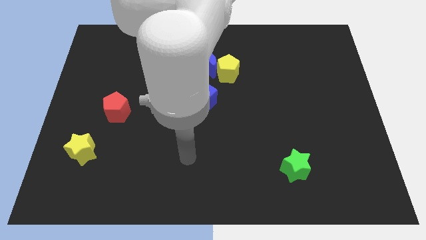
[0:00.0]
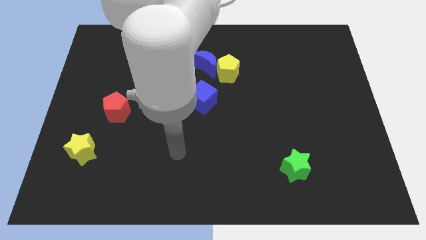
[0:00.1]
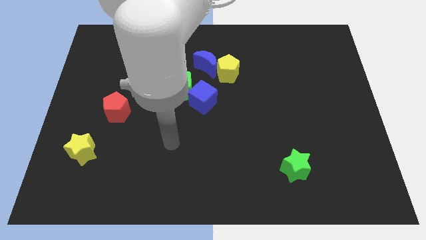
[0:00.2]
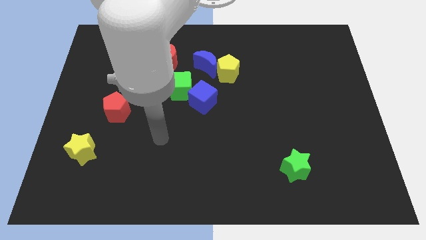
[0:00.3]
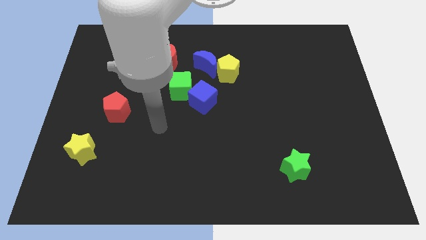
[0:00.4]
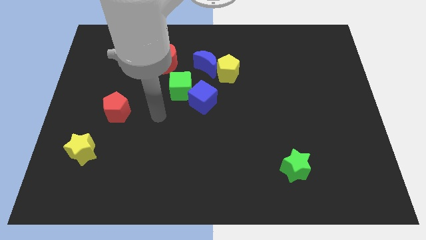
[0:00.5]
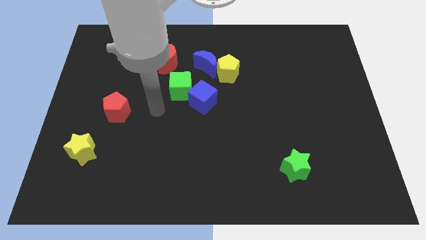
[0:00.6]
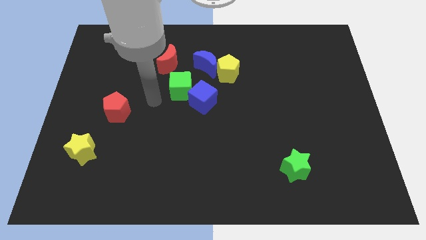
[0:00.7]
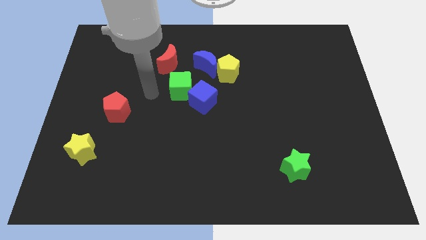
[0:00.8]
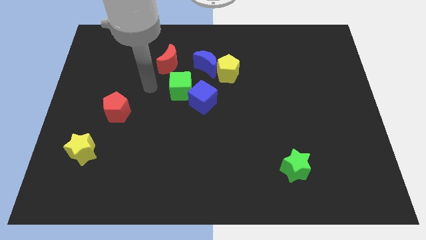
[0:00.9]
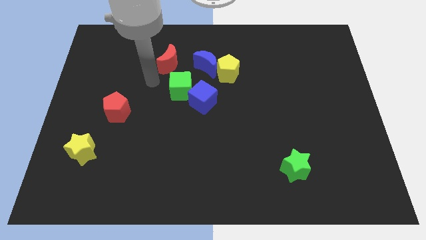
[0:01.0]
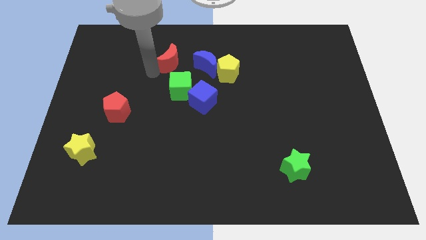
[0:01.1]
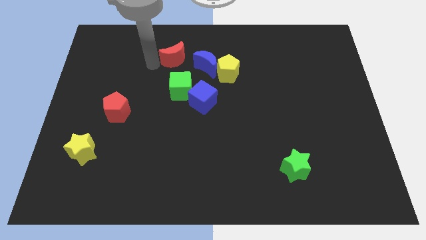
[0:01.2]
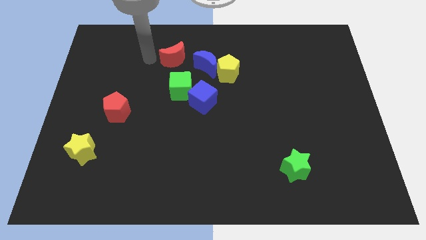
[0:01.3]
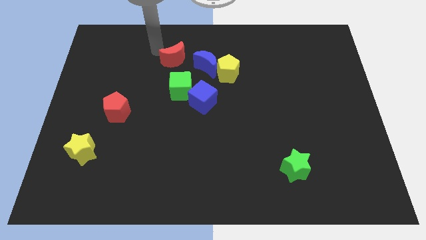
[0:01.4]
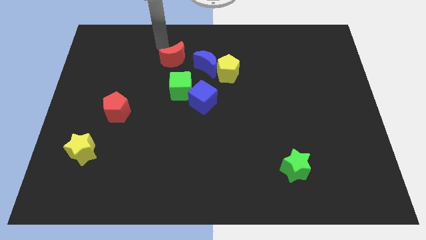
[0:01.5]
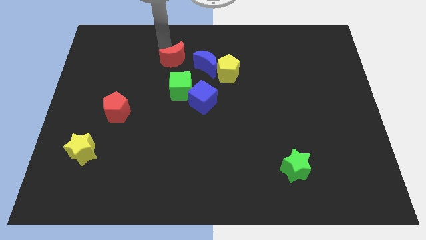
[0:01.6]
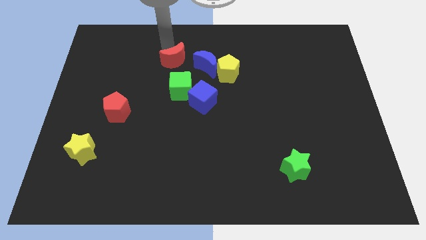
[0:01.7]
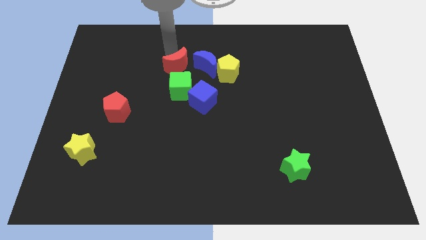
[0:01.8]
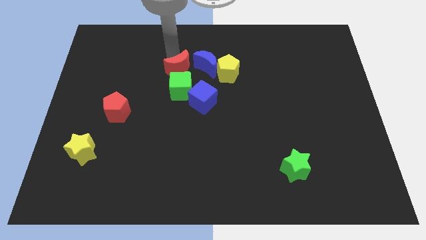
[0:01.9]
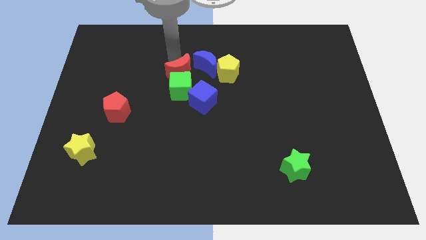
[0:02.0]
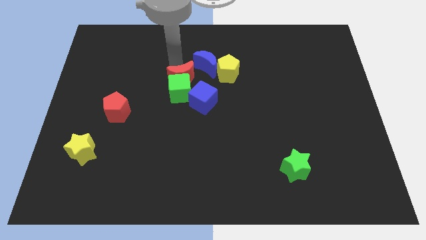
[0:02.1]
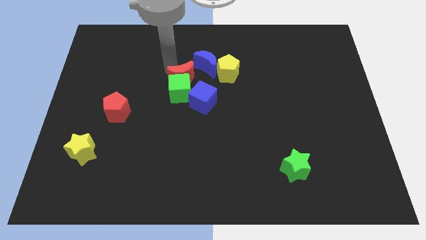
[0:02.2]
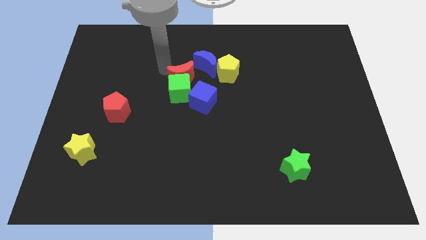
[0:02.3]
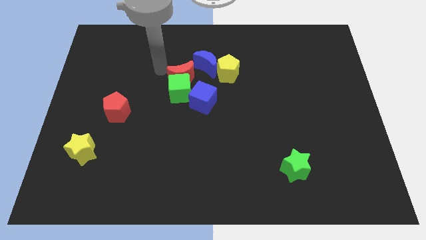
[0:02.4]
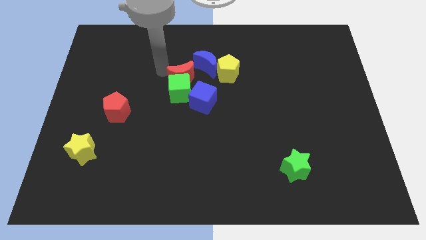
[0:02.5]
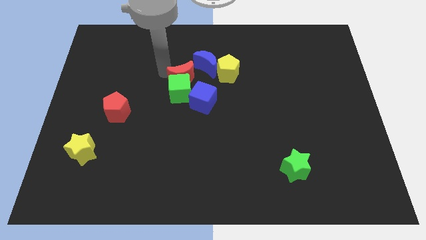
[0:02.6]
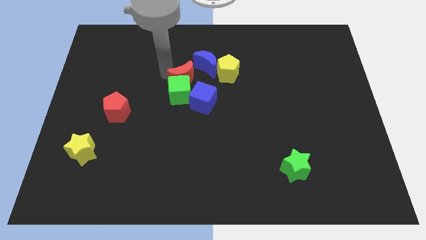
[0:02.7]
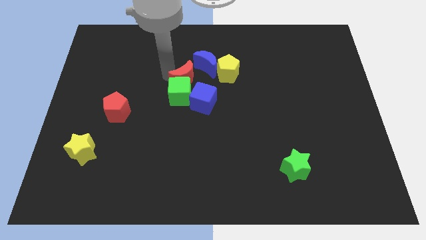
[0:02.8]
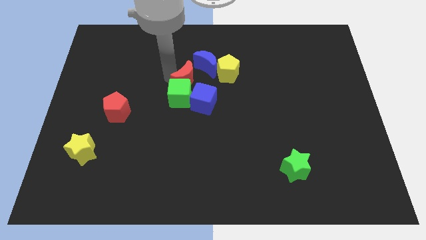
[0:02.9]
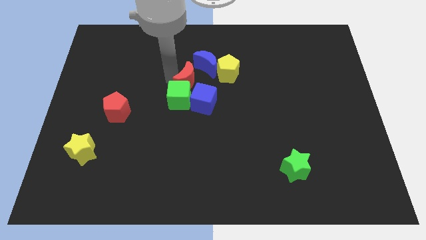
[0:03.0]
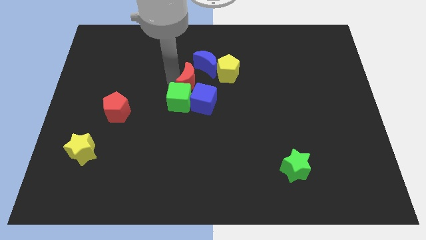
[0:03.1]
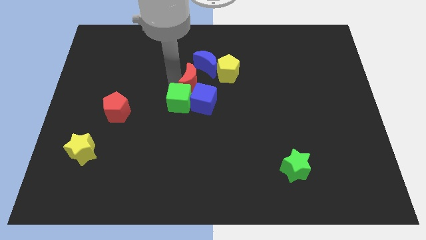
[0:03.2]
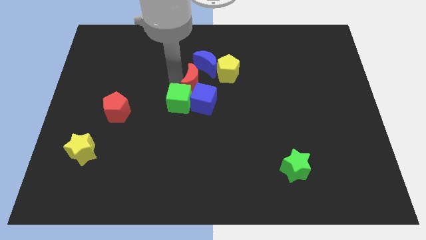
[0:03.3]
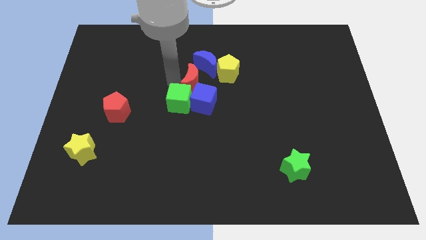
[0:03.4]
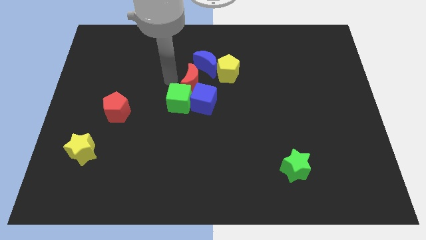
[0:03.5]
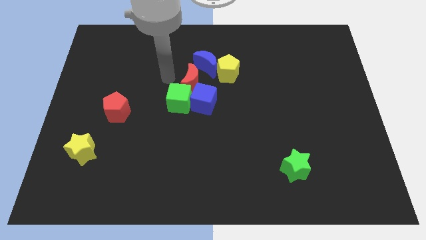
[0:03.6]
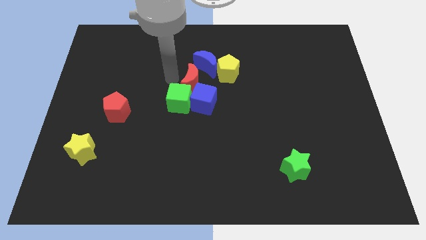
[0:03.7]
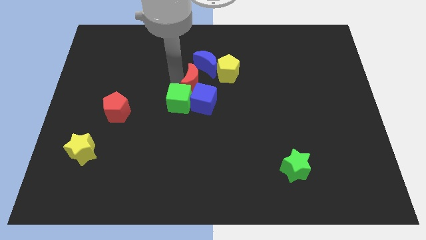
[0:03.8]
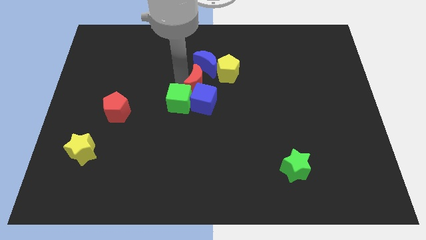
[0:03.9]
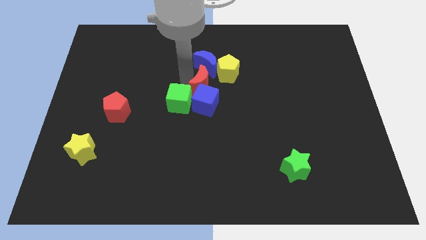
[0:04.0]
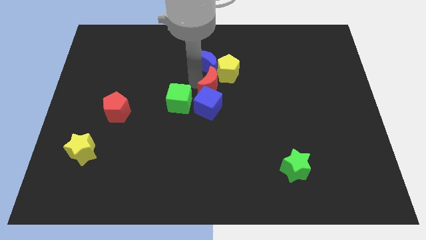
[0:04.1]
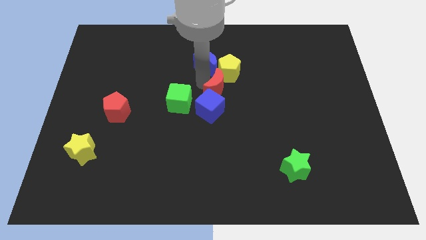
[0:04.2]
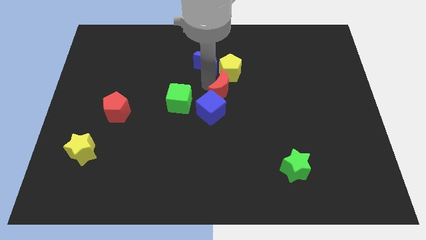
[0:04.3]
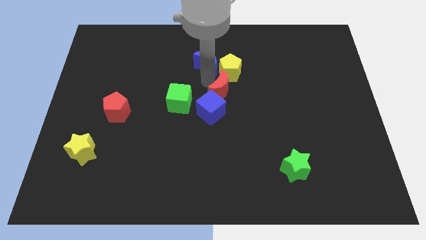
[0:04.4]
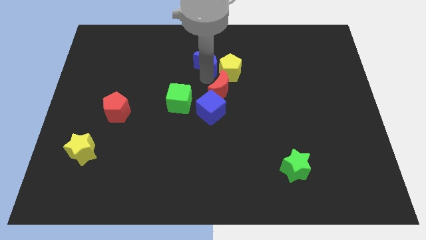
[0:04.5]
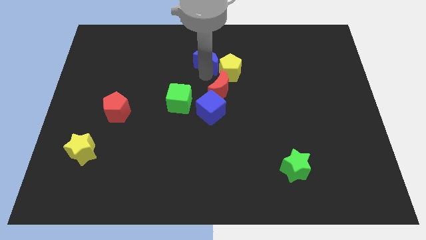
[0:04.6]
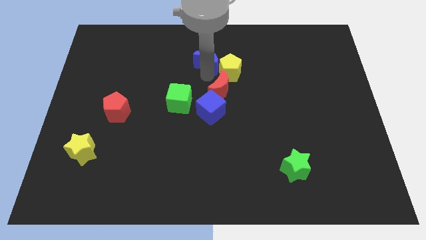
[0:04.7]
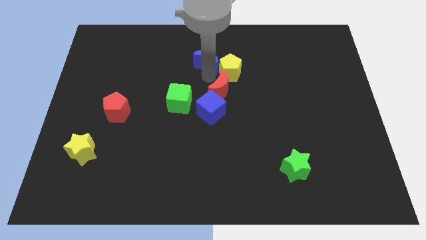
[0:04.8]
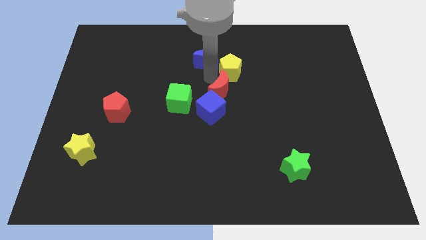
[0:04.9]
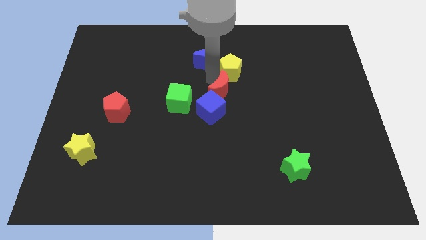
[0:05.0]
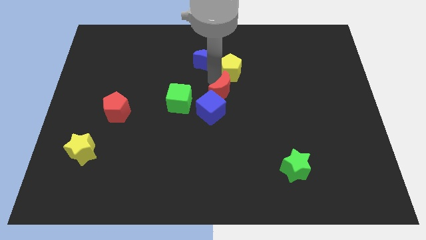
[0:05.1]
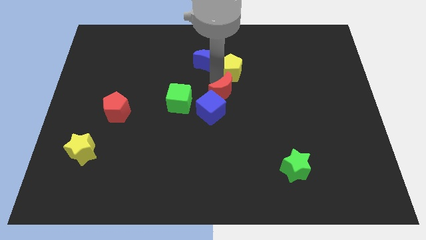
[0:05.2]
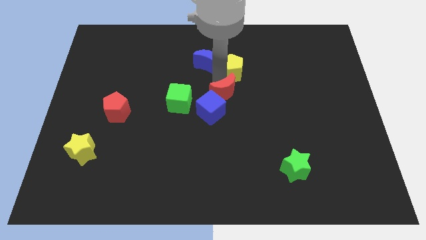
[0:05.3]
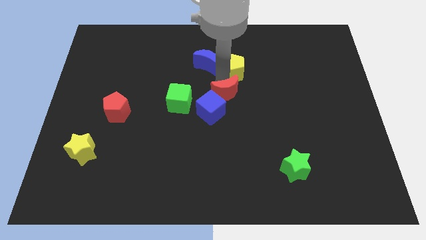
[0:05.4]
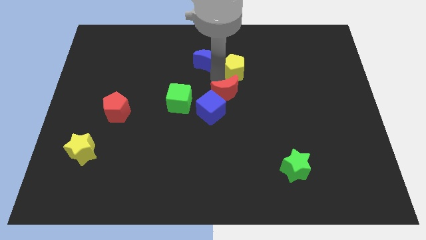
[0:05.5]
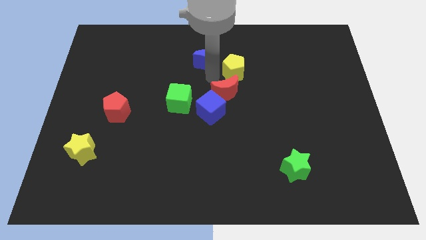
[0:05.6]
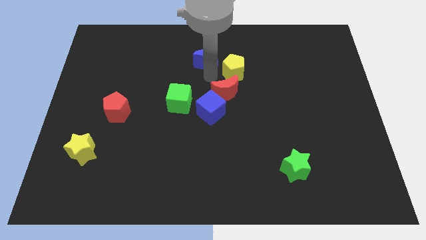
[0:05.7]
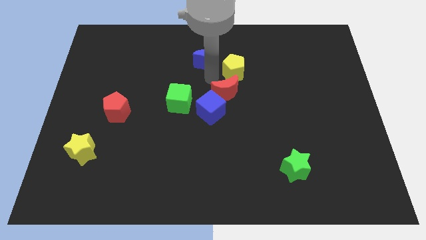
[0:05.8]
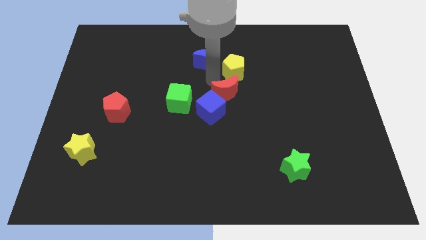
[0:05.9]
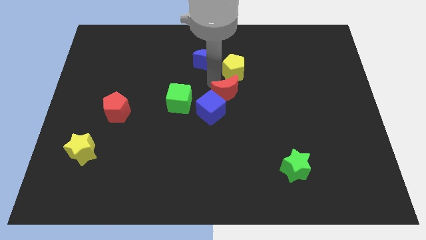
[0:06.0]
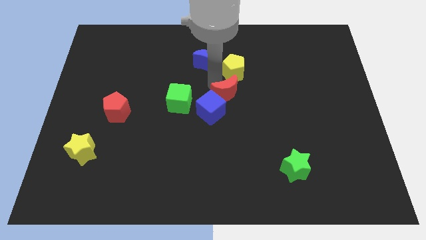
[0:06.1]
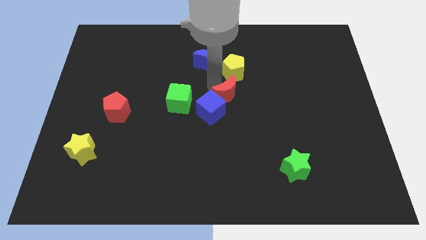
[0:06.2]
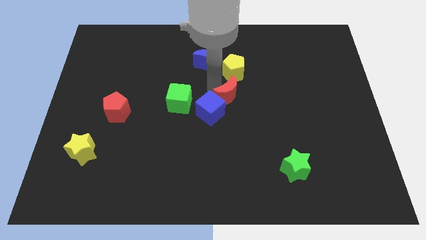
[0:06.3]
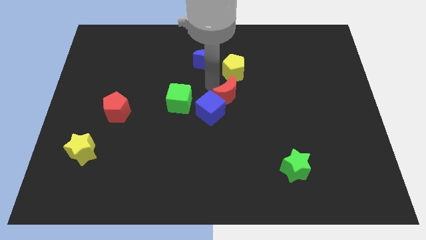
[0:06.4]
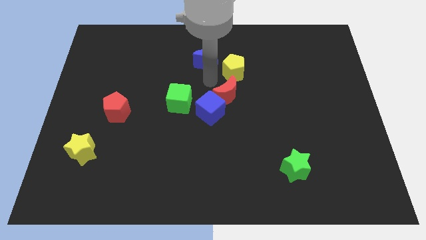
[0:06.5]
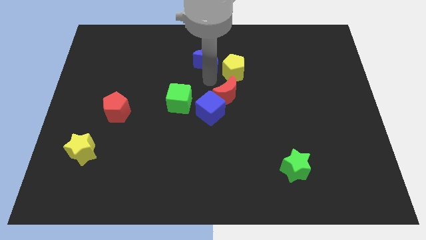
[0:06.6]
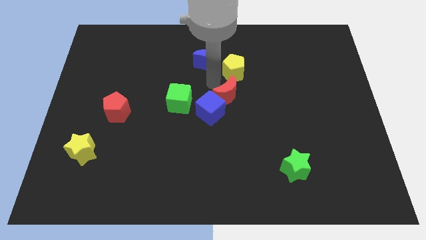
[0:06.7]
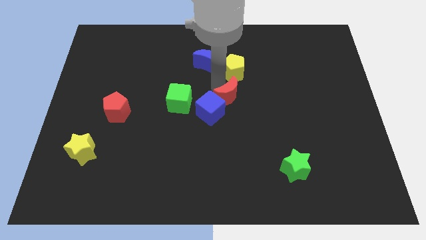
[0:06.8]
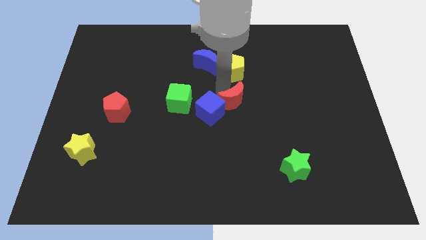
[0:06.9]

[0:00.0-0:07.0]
move the red moon down and then right

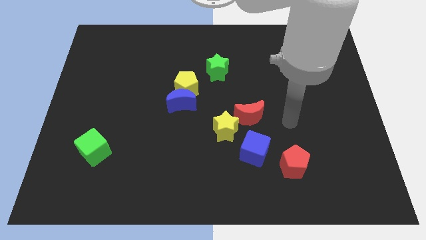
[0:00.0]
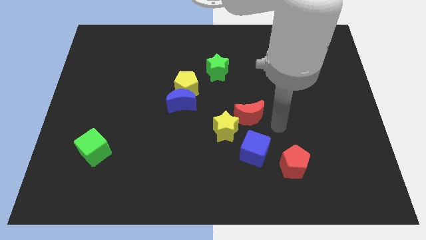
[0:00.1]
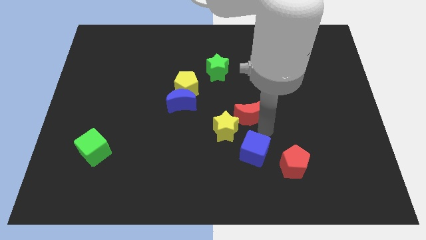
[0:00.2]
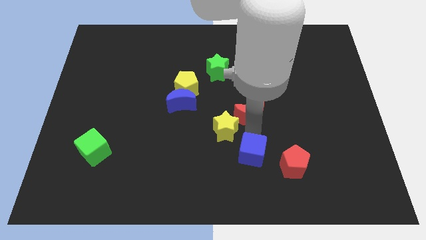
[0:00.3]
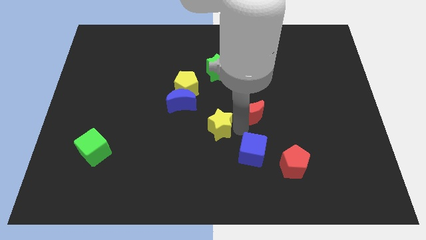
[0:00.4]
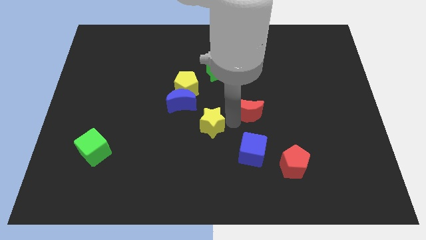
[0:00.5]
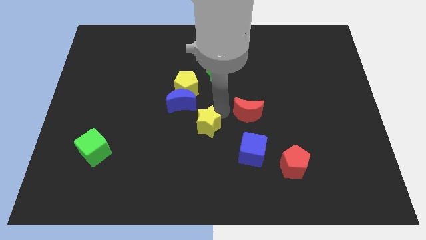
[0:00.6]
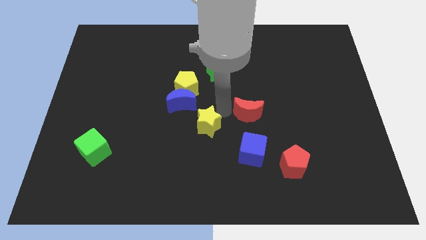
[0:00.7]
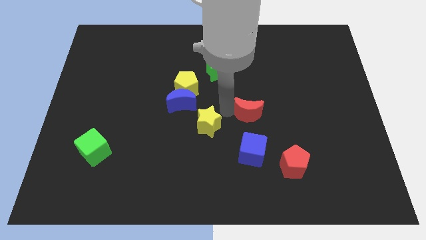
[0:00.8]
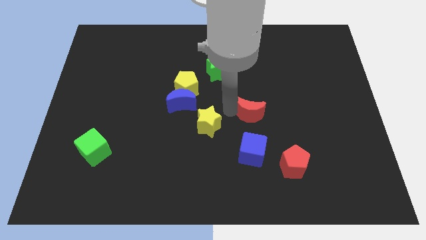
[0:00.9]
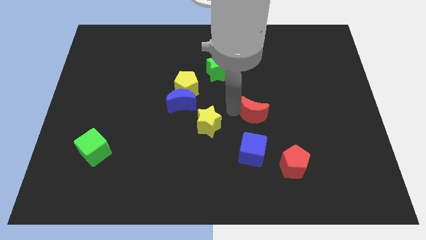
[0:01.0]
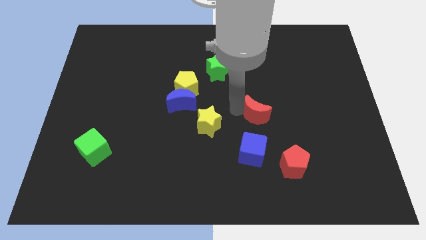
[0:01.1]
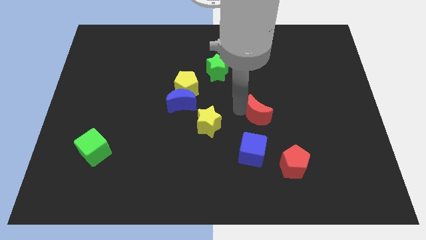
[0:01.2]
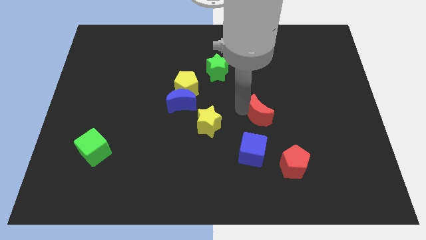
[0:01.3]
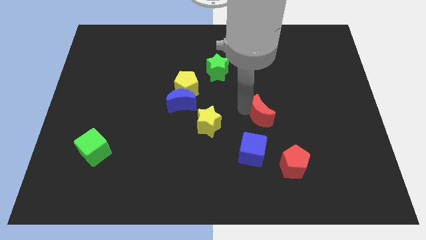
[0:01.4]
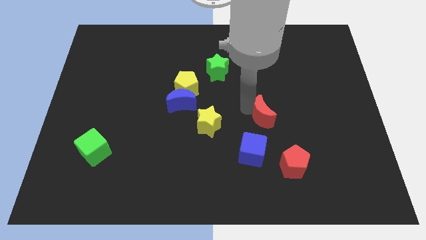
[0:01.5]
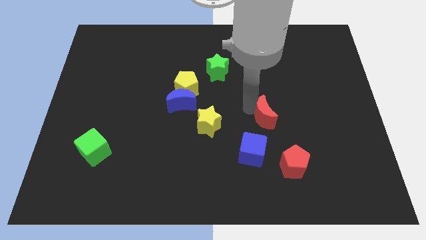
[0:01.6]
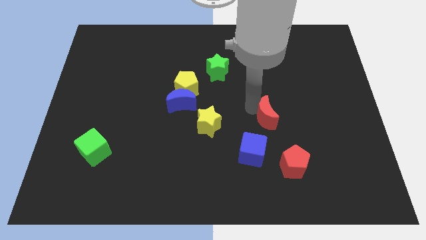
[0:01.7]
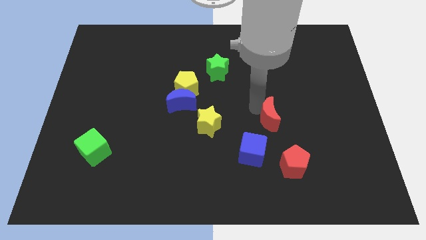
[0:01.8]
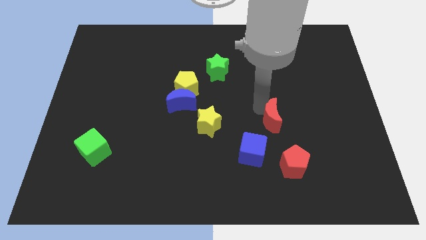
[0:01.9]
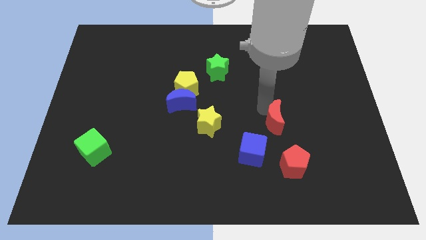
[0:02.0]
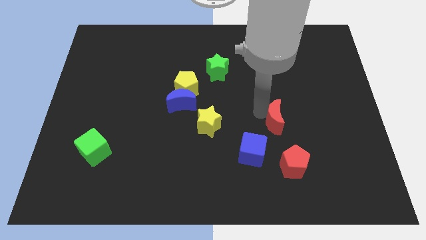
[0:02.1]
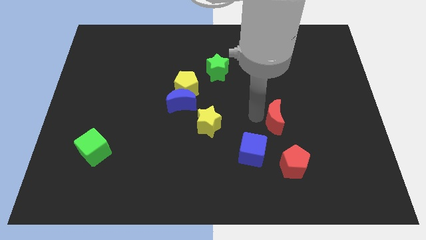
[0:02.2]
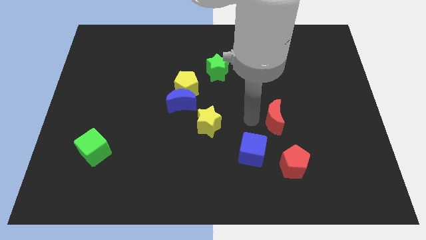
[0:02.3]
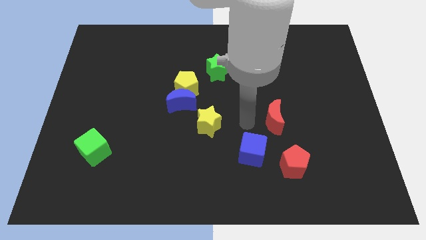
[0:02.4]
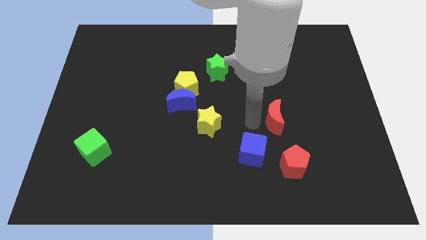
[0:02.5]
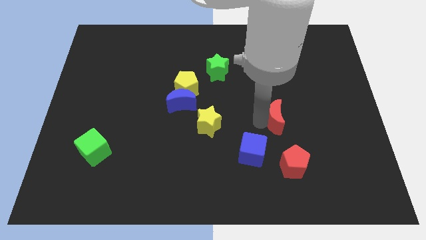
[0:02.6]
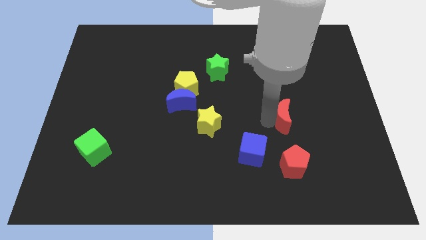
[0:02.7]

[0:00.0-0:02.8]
slightly move the red moon right
